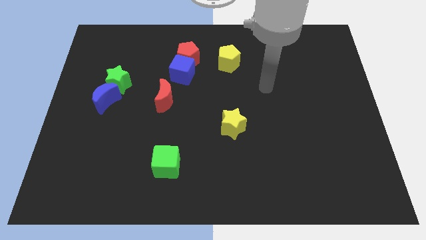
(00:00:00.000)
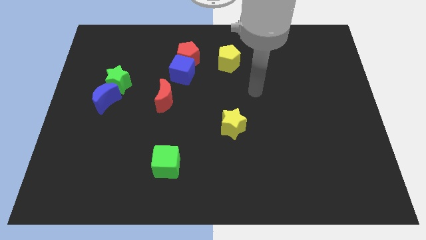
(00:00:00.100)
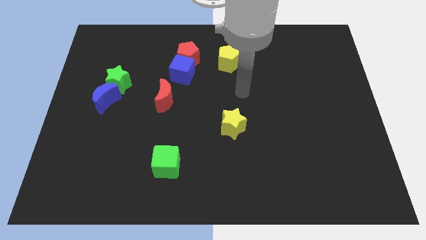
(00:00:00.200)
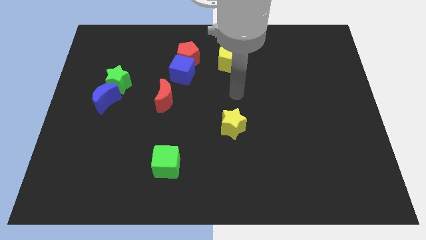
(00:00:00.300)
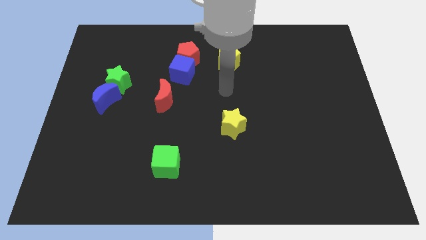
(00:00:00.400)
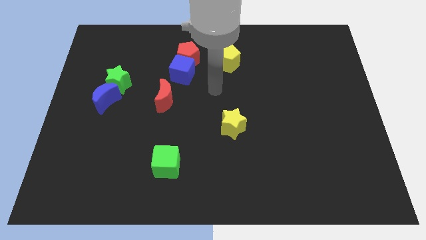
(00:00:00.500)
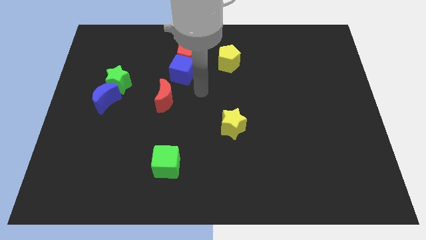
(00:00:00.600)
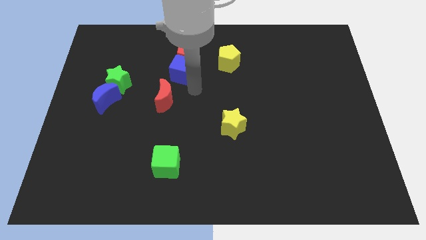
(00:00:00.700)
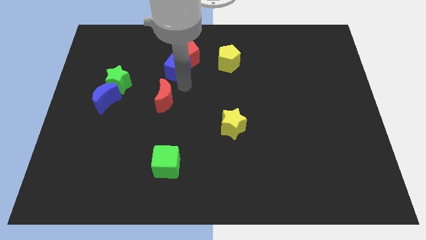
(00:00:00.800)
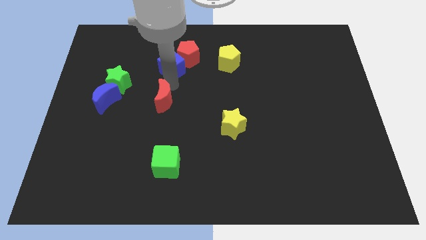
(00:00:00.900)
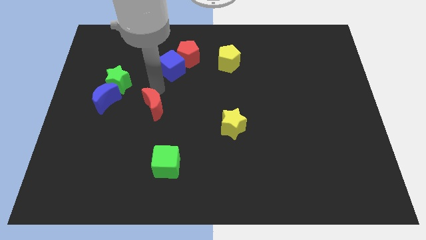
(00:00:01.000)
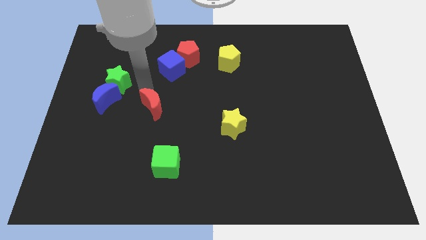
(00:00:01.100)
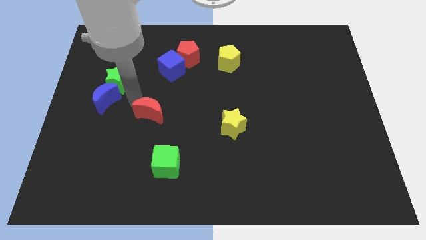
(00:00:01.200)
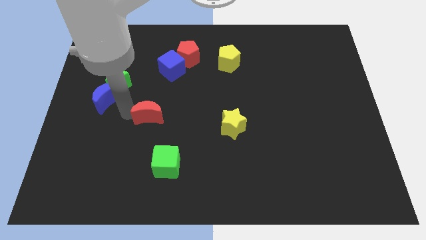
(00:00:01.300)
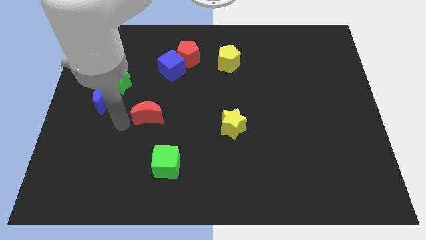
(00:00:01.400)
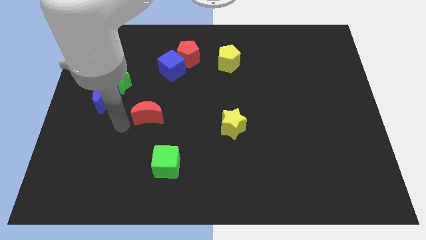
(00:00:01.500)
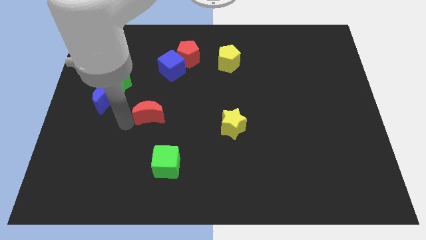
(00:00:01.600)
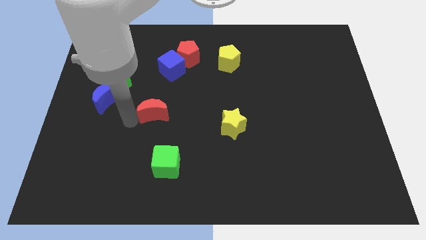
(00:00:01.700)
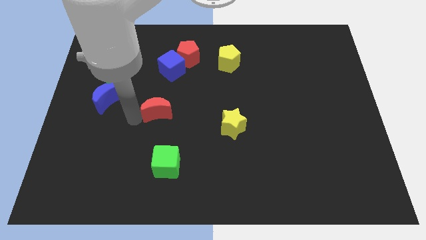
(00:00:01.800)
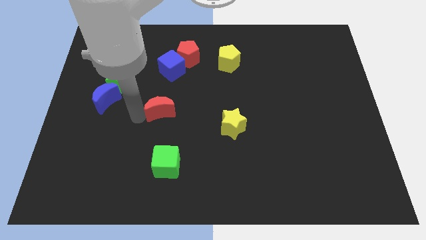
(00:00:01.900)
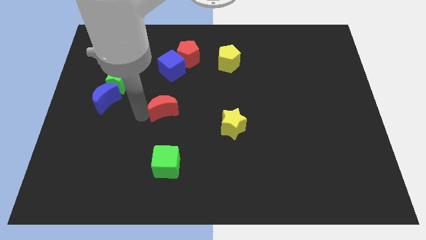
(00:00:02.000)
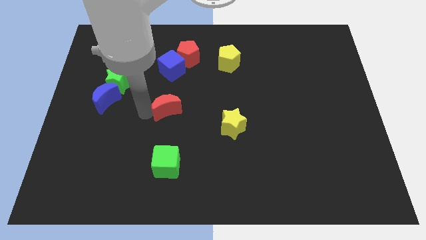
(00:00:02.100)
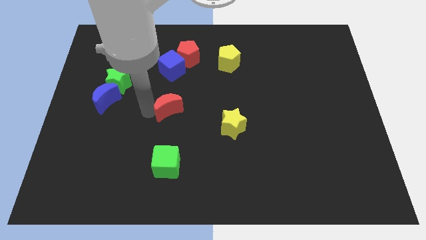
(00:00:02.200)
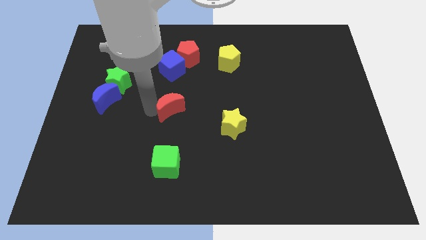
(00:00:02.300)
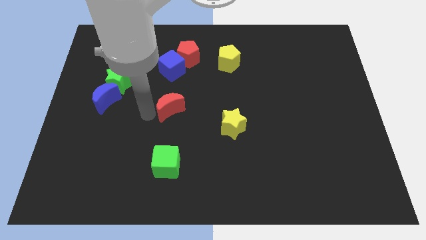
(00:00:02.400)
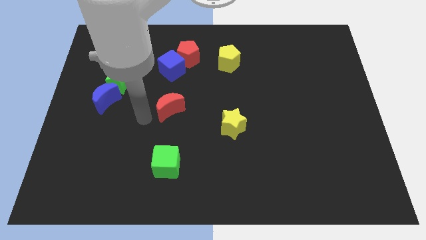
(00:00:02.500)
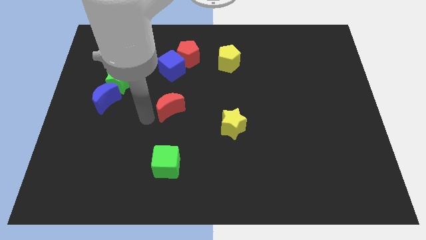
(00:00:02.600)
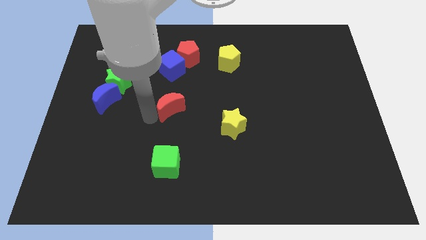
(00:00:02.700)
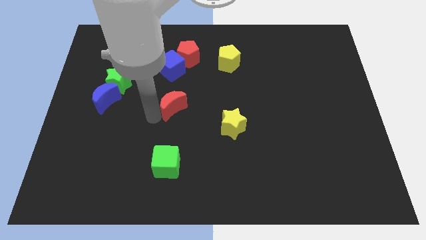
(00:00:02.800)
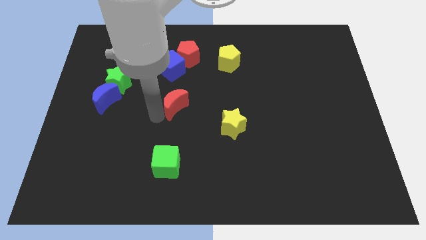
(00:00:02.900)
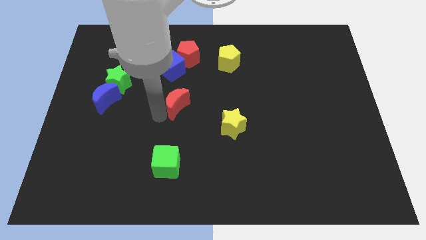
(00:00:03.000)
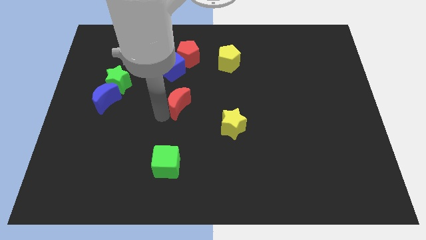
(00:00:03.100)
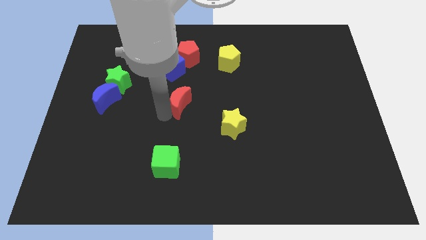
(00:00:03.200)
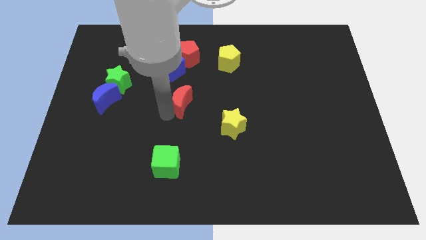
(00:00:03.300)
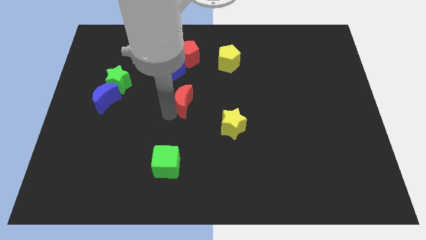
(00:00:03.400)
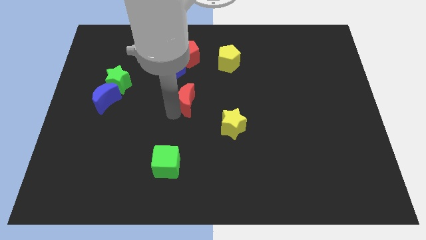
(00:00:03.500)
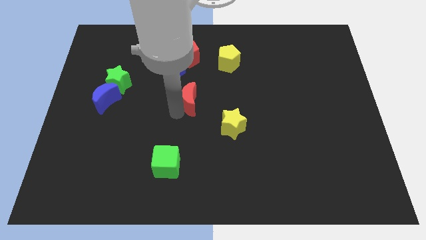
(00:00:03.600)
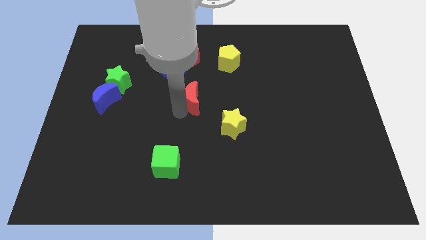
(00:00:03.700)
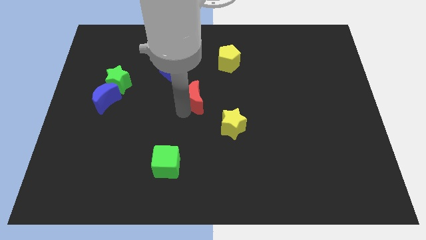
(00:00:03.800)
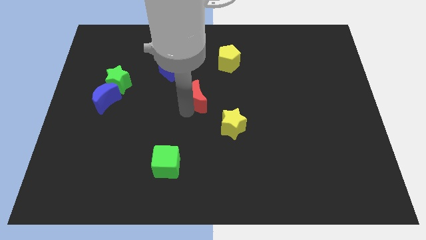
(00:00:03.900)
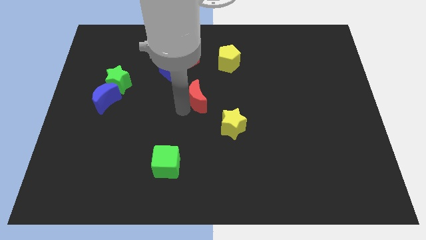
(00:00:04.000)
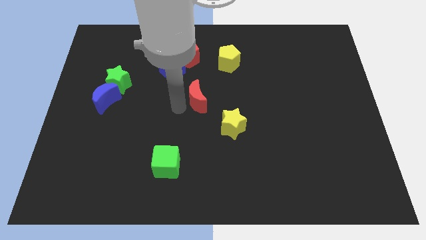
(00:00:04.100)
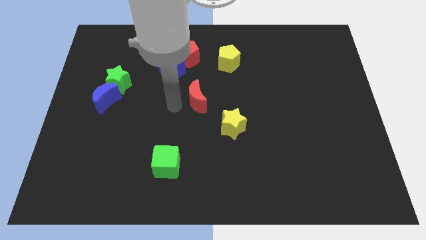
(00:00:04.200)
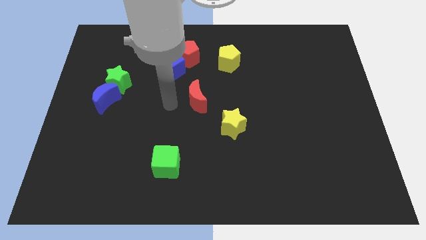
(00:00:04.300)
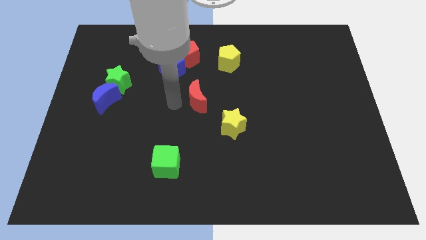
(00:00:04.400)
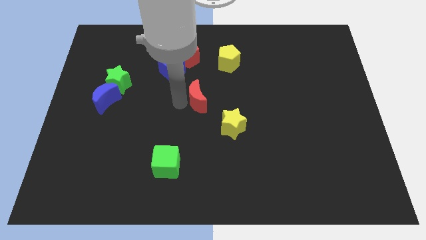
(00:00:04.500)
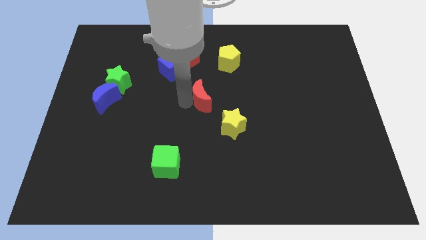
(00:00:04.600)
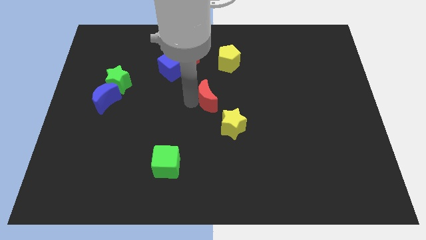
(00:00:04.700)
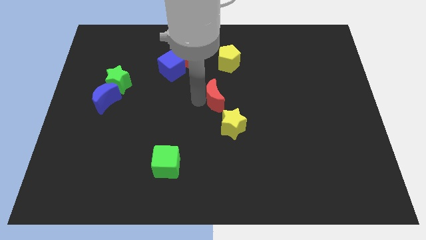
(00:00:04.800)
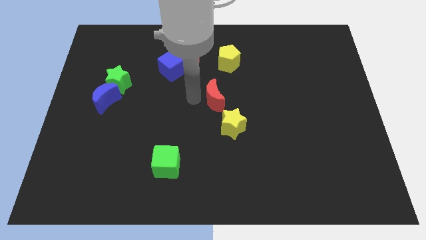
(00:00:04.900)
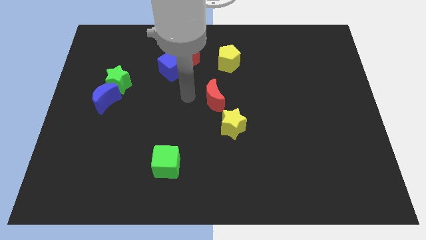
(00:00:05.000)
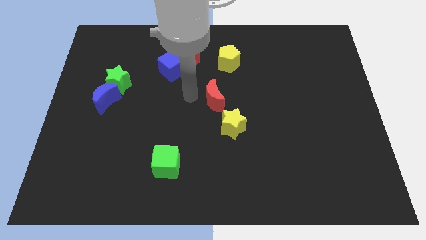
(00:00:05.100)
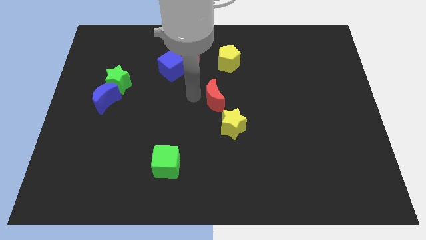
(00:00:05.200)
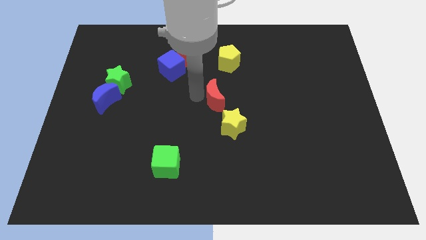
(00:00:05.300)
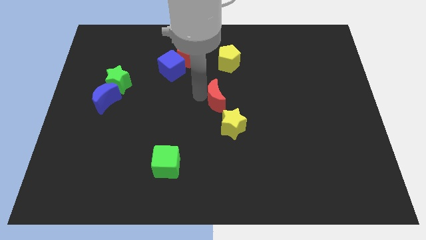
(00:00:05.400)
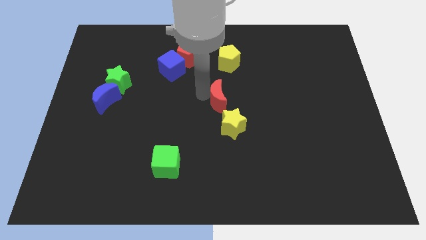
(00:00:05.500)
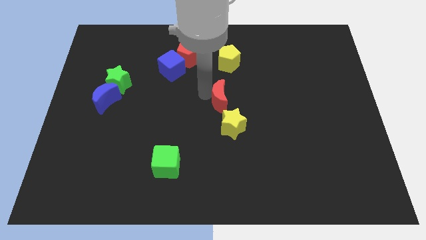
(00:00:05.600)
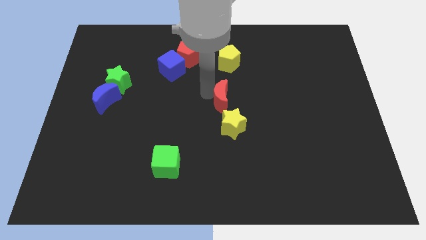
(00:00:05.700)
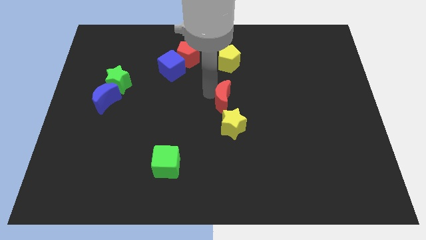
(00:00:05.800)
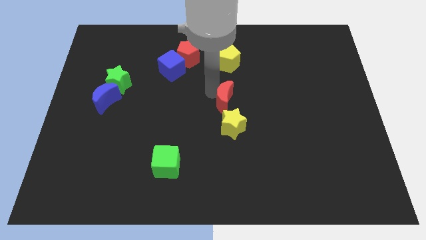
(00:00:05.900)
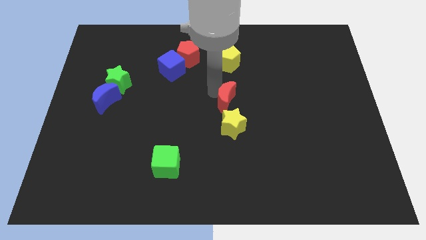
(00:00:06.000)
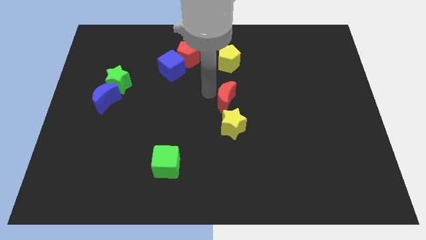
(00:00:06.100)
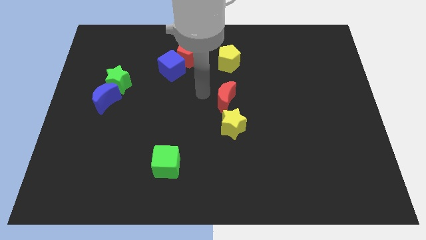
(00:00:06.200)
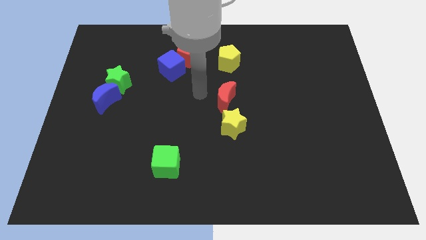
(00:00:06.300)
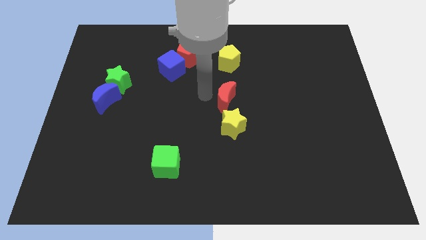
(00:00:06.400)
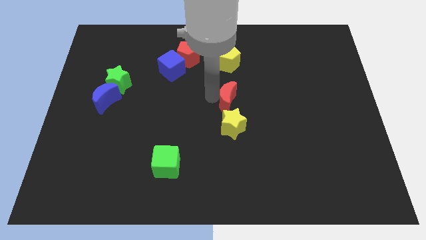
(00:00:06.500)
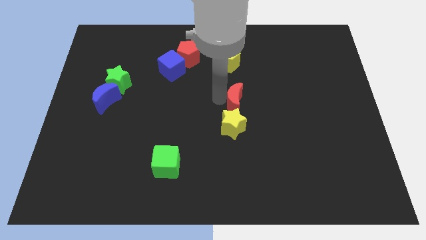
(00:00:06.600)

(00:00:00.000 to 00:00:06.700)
move the red moon to the top right side of the yellow star

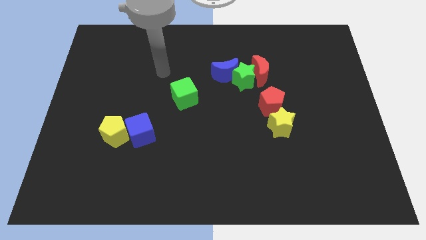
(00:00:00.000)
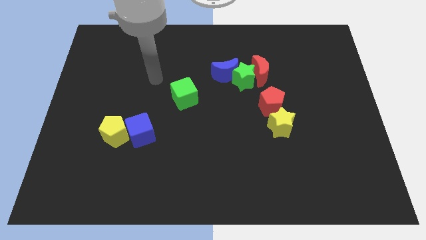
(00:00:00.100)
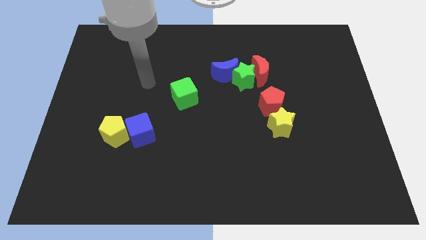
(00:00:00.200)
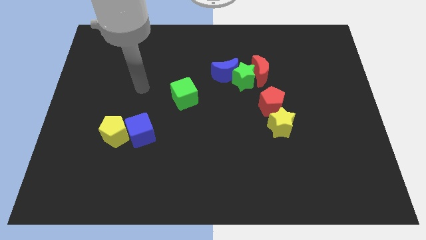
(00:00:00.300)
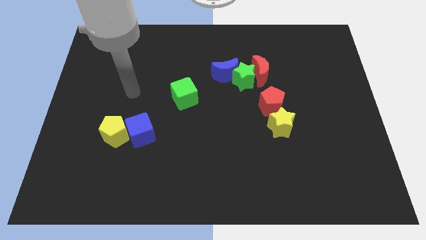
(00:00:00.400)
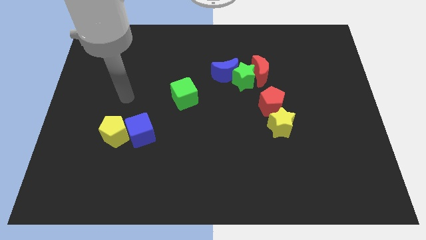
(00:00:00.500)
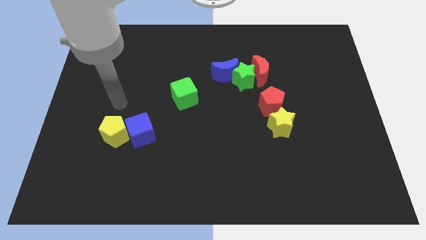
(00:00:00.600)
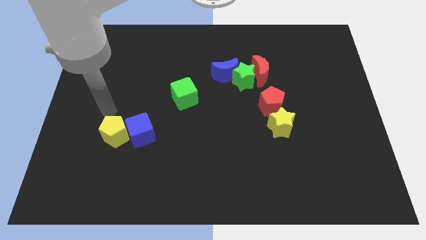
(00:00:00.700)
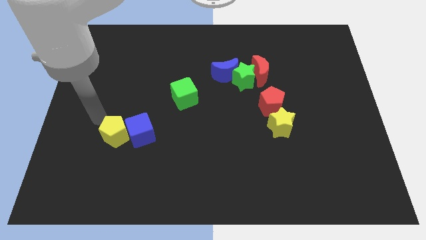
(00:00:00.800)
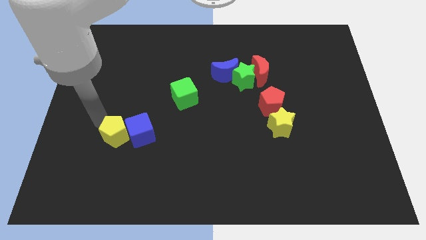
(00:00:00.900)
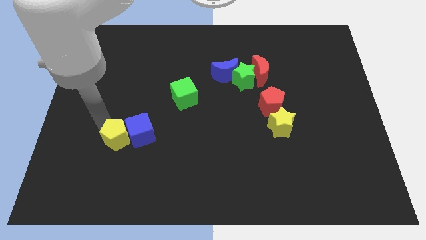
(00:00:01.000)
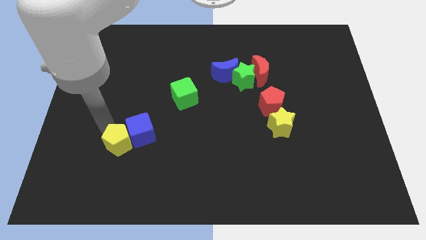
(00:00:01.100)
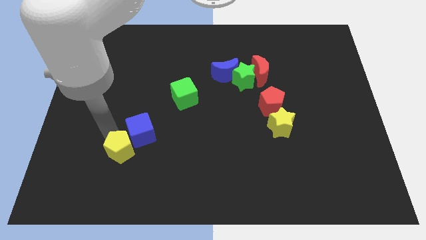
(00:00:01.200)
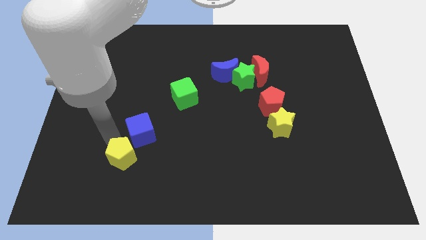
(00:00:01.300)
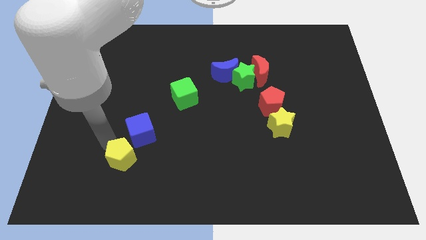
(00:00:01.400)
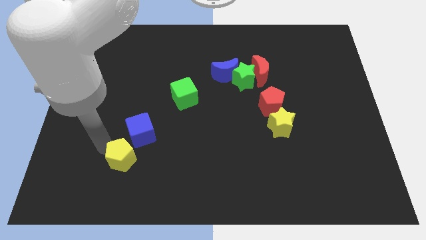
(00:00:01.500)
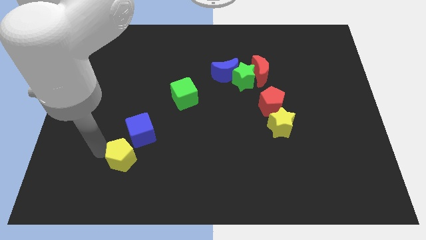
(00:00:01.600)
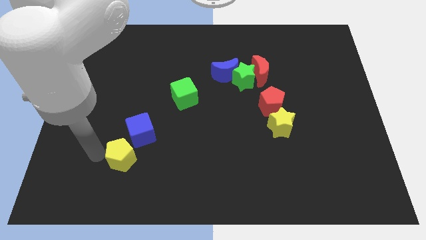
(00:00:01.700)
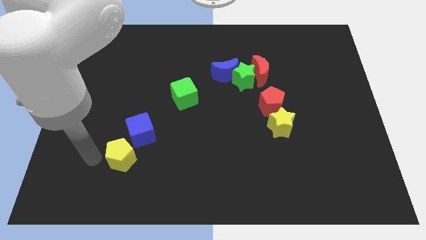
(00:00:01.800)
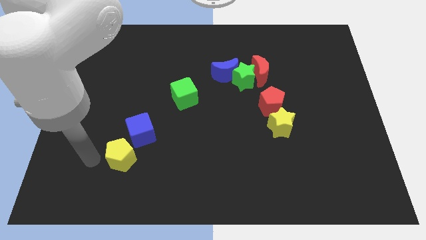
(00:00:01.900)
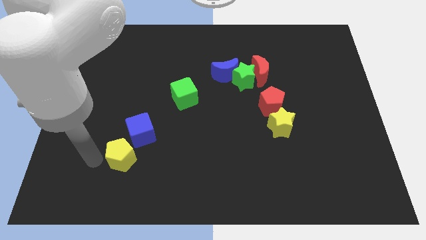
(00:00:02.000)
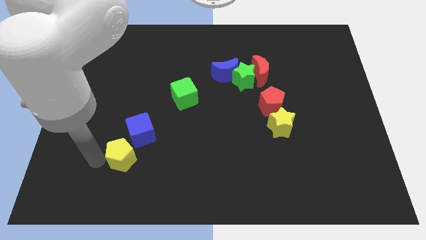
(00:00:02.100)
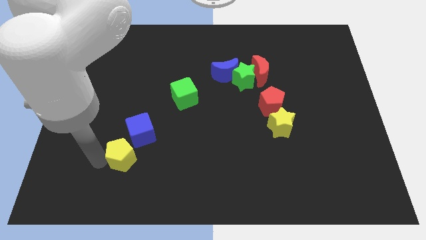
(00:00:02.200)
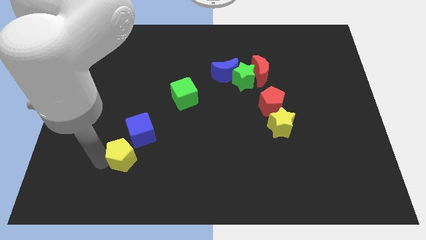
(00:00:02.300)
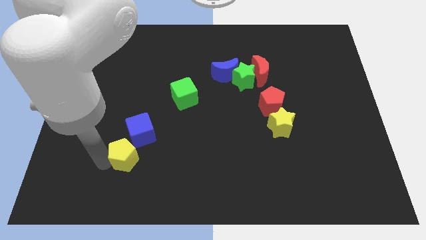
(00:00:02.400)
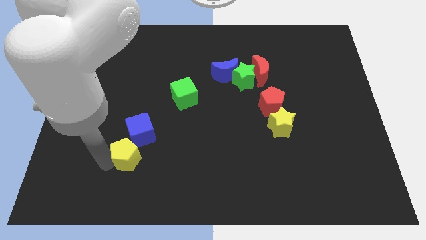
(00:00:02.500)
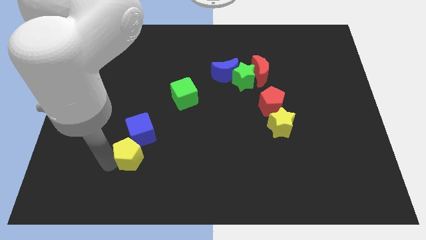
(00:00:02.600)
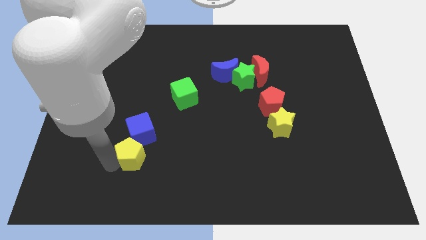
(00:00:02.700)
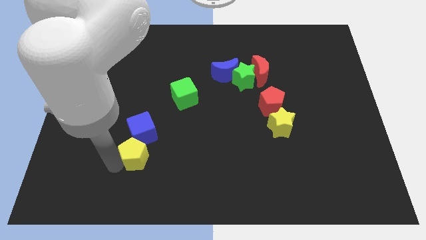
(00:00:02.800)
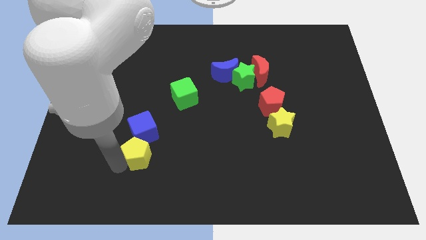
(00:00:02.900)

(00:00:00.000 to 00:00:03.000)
slide the yellow pentagon diagonally down and to the right of the blue cube
